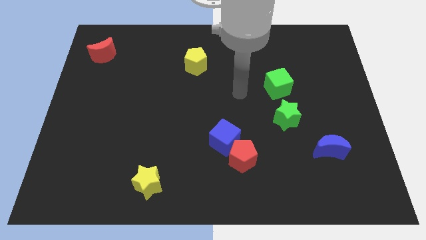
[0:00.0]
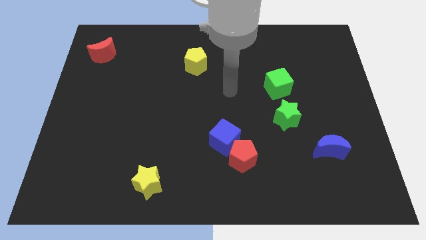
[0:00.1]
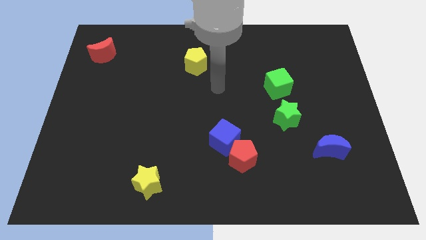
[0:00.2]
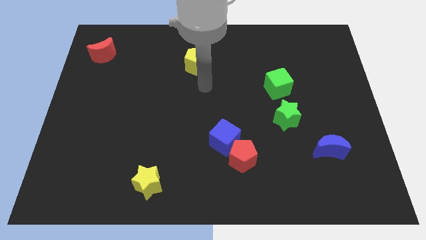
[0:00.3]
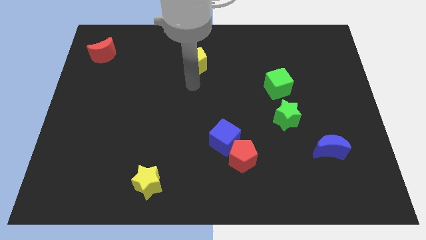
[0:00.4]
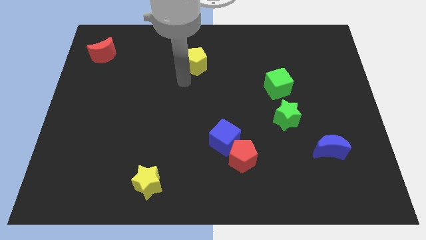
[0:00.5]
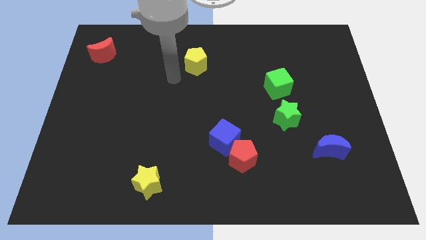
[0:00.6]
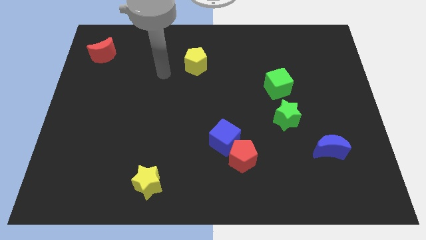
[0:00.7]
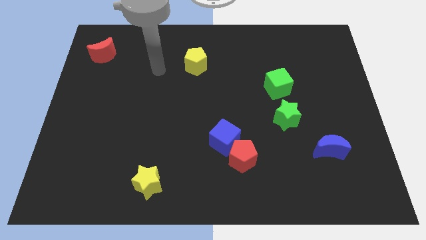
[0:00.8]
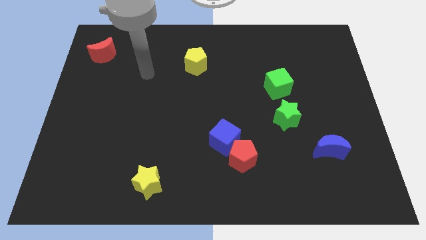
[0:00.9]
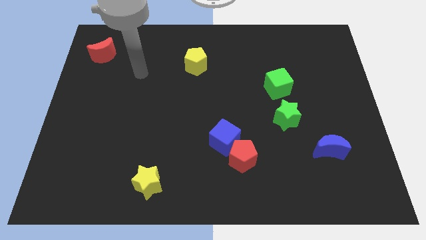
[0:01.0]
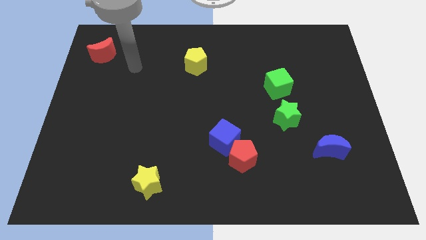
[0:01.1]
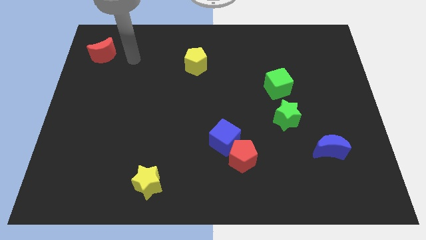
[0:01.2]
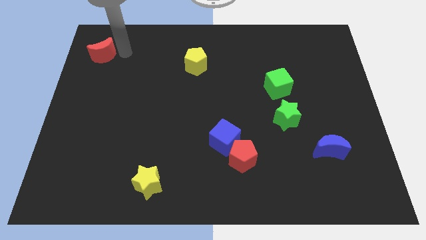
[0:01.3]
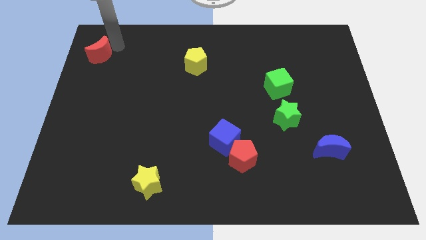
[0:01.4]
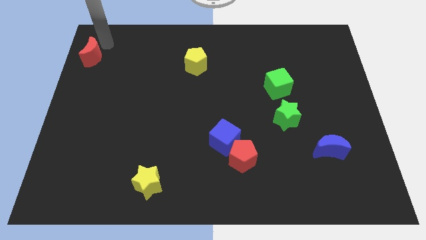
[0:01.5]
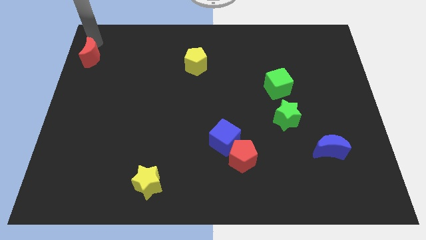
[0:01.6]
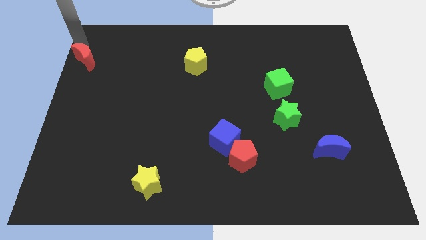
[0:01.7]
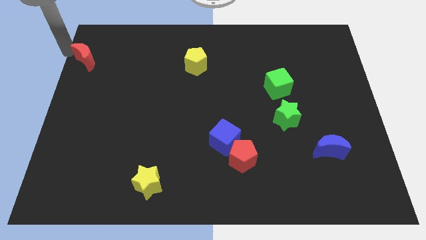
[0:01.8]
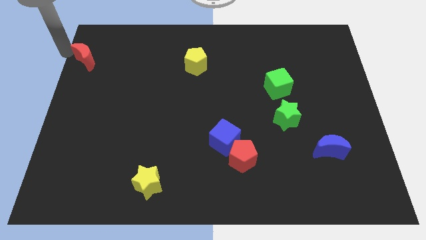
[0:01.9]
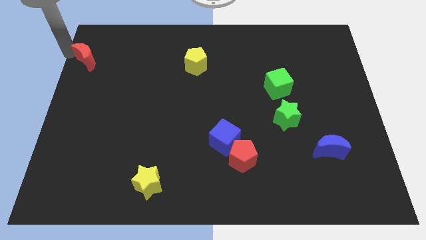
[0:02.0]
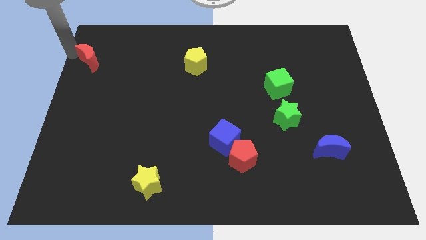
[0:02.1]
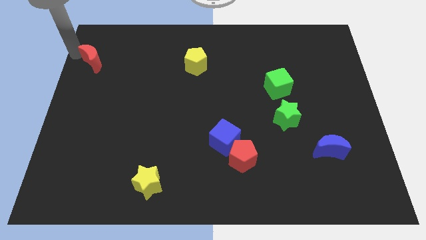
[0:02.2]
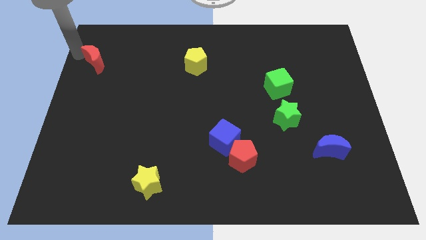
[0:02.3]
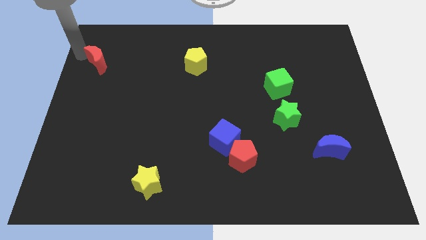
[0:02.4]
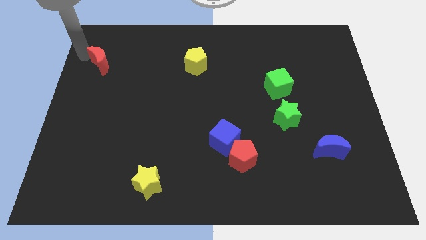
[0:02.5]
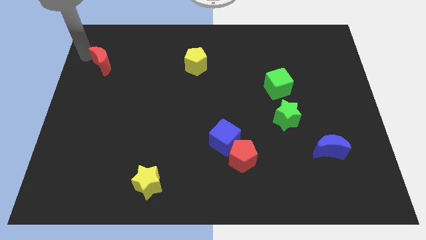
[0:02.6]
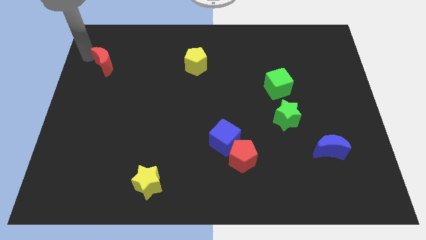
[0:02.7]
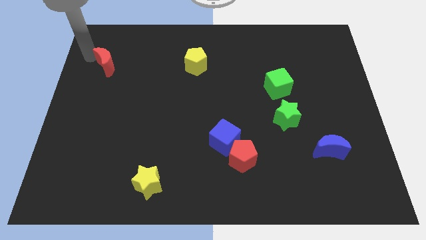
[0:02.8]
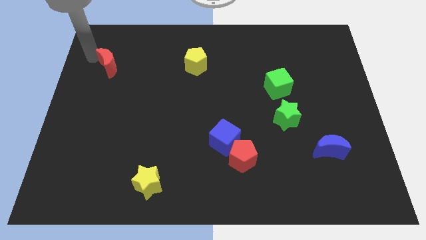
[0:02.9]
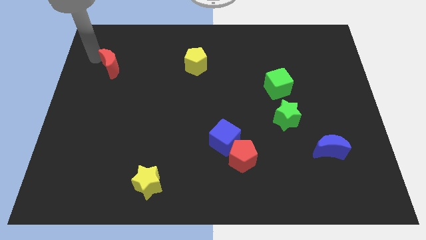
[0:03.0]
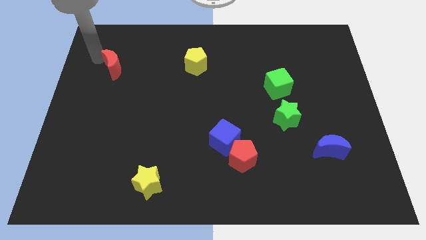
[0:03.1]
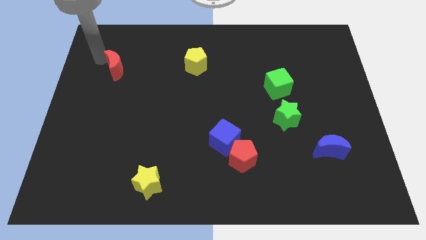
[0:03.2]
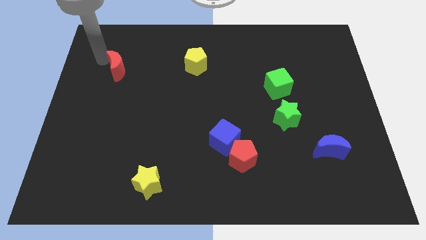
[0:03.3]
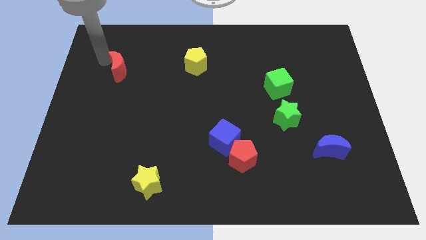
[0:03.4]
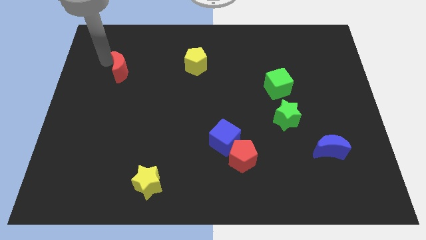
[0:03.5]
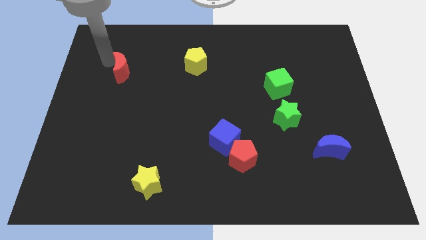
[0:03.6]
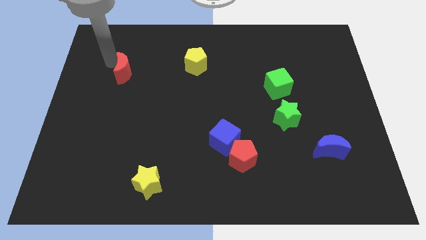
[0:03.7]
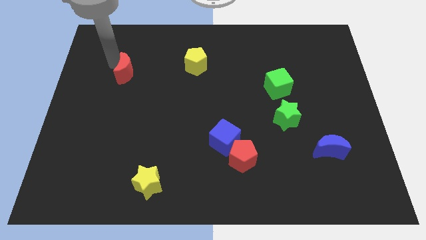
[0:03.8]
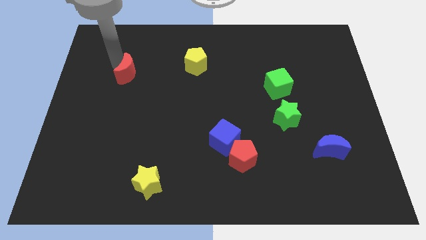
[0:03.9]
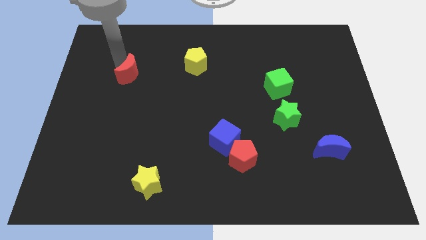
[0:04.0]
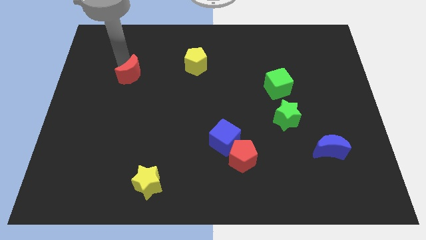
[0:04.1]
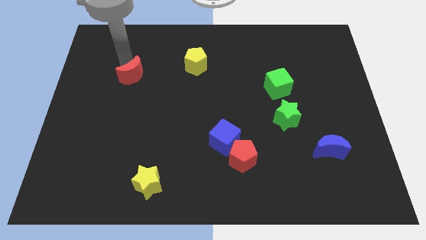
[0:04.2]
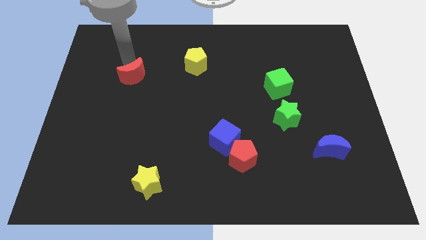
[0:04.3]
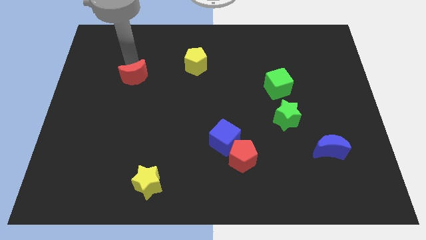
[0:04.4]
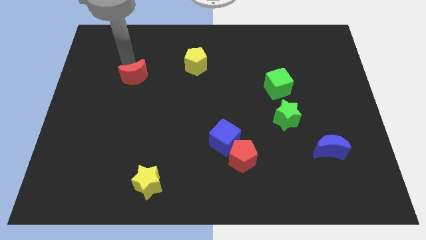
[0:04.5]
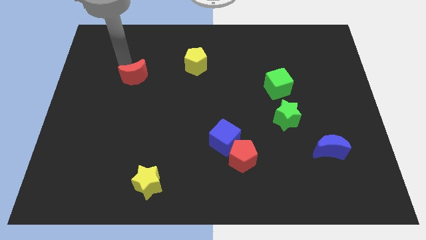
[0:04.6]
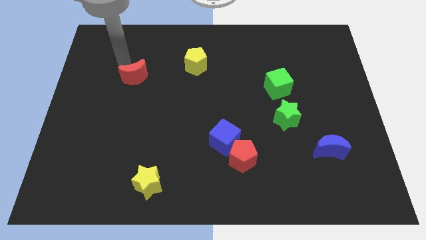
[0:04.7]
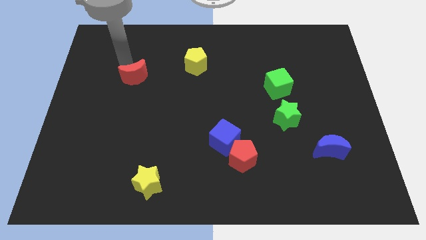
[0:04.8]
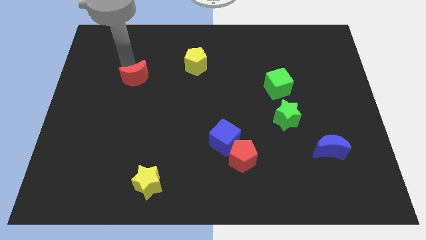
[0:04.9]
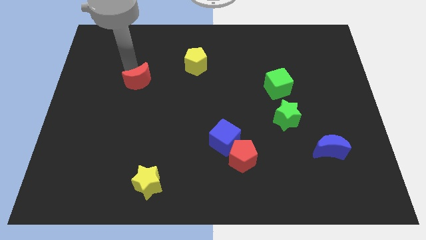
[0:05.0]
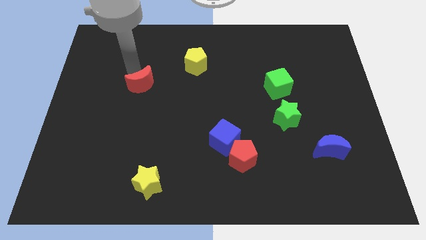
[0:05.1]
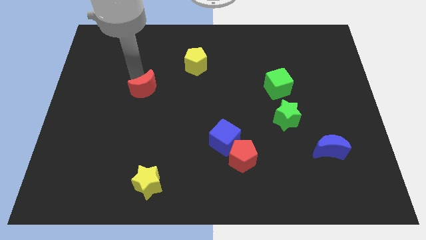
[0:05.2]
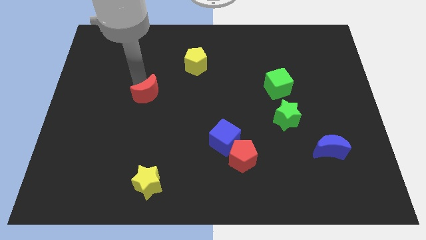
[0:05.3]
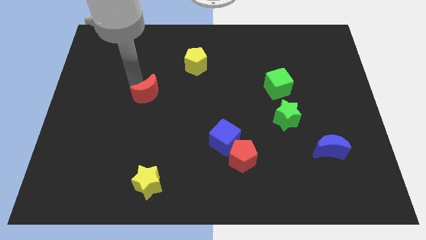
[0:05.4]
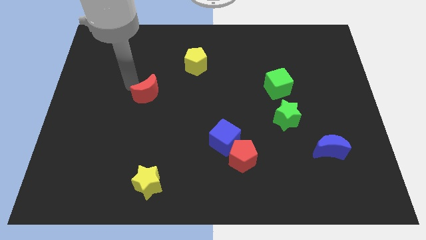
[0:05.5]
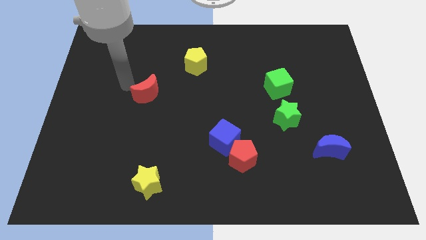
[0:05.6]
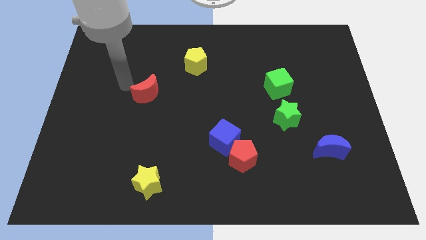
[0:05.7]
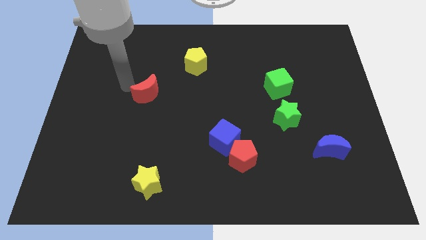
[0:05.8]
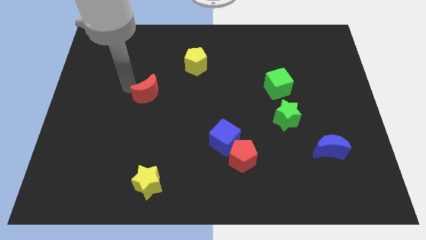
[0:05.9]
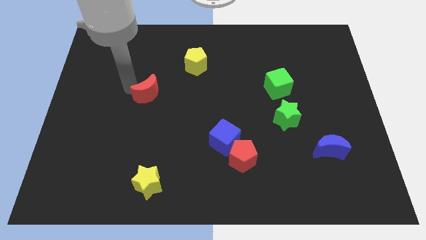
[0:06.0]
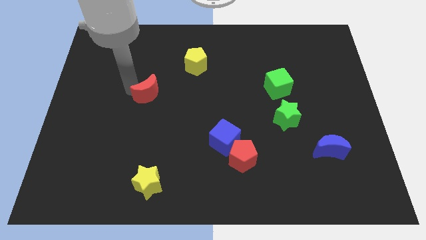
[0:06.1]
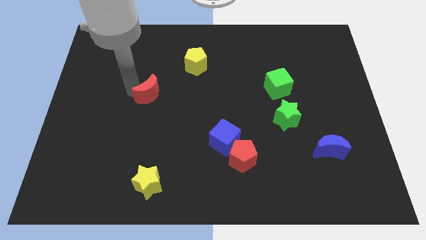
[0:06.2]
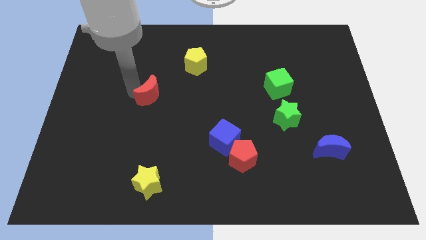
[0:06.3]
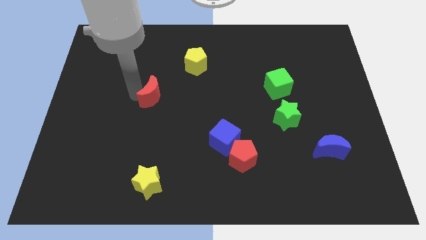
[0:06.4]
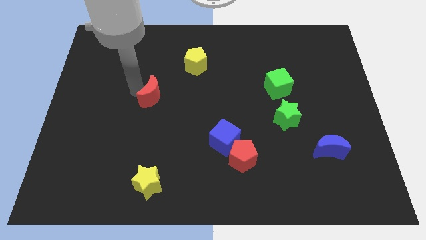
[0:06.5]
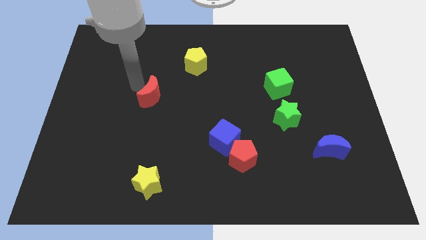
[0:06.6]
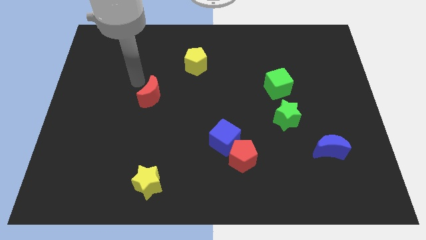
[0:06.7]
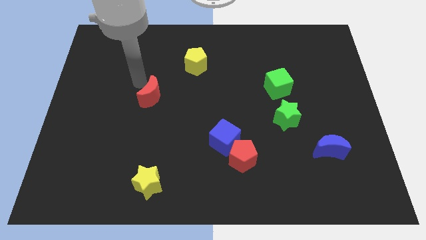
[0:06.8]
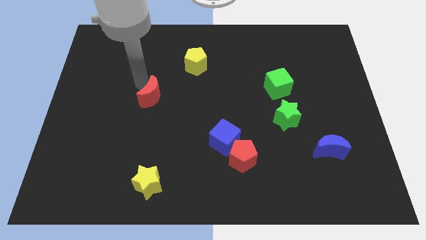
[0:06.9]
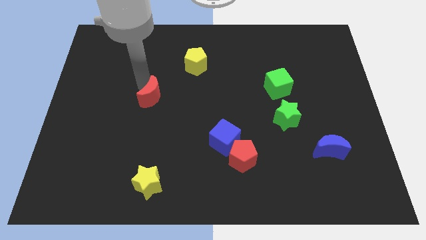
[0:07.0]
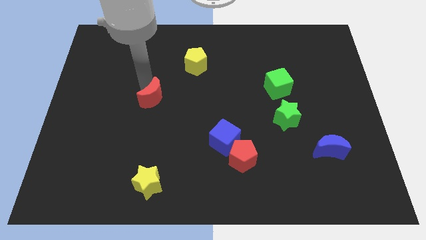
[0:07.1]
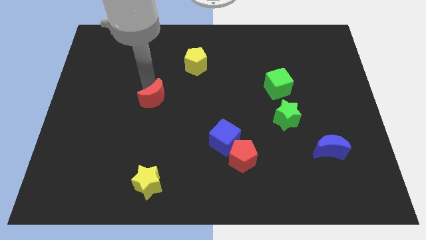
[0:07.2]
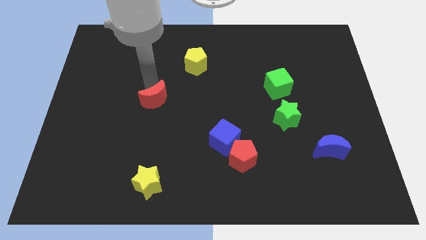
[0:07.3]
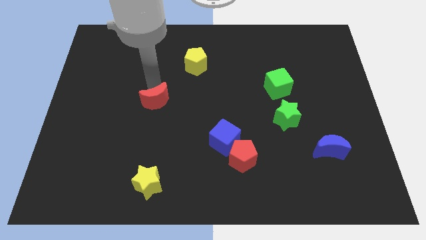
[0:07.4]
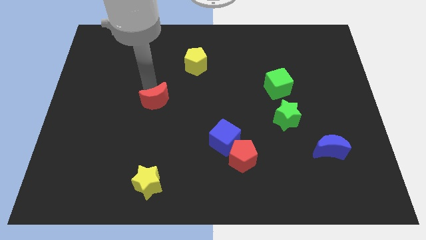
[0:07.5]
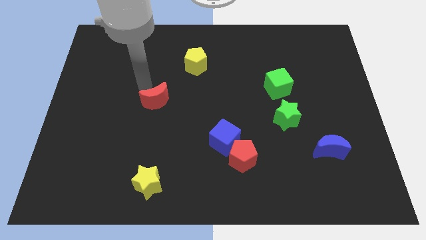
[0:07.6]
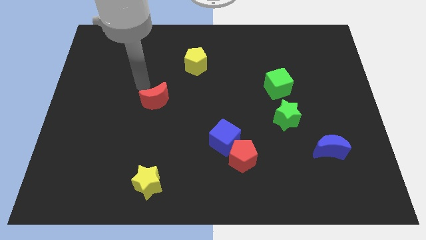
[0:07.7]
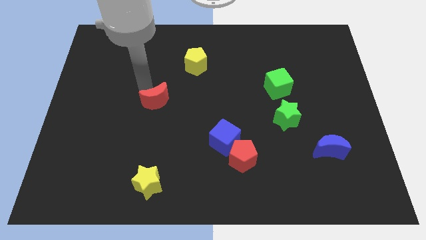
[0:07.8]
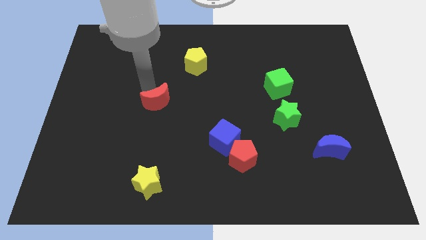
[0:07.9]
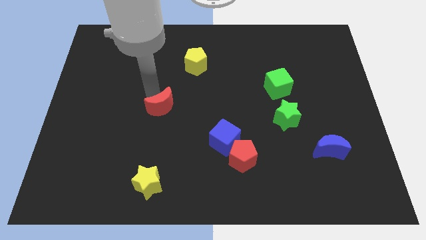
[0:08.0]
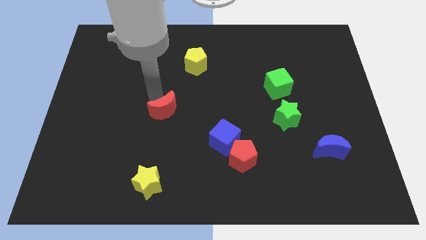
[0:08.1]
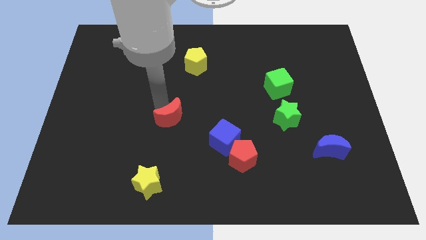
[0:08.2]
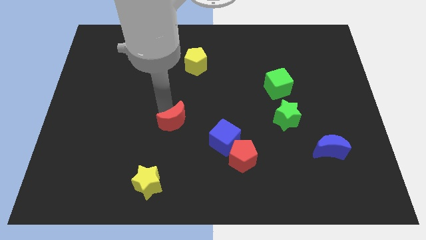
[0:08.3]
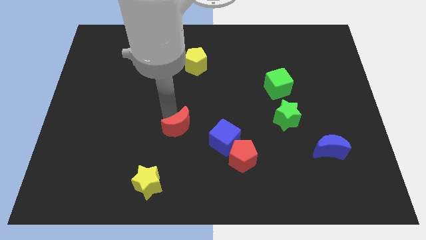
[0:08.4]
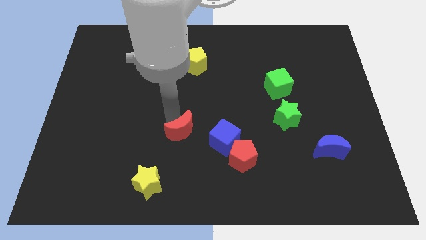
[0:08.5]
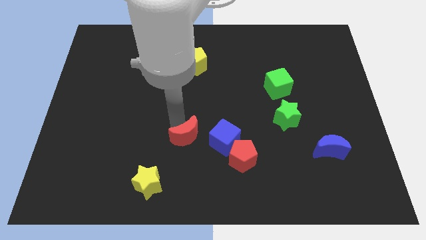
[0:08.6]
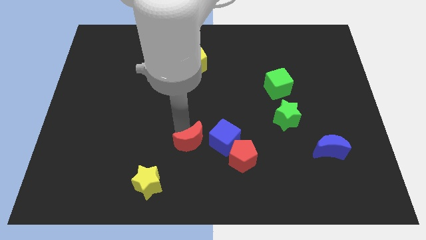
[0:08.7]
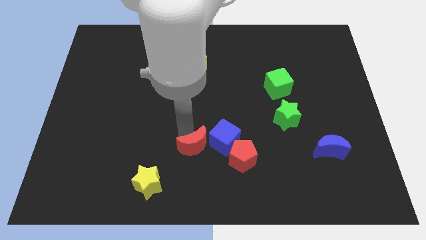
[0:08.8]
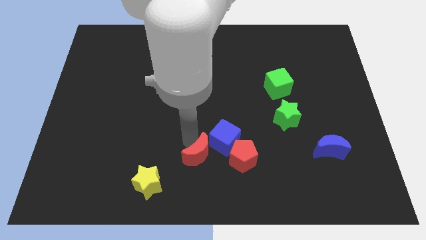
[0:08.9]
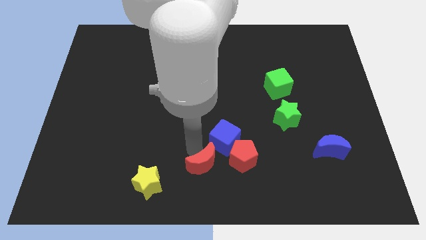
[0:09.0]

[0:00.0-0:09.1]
move the red moon below the blue cube
